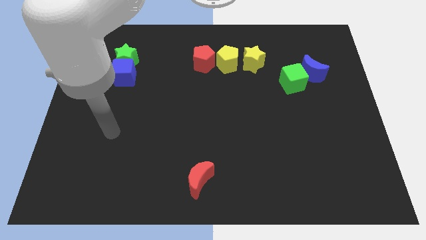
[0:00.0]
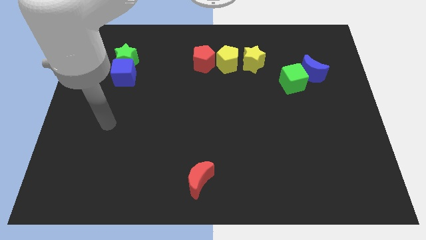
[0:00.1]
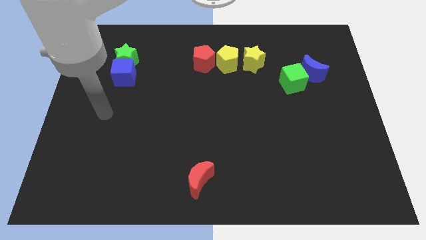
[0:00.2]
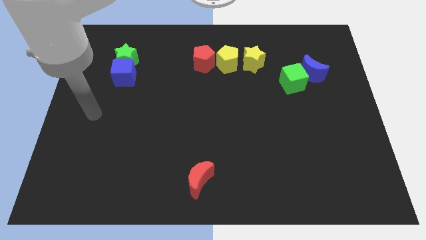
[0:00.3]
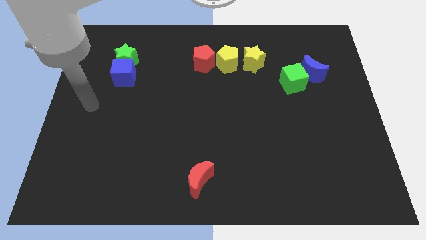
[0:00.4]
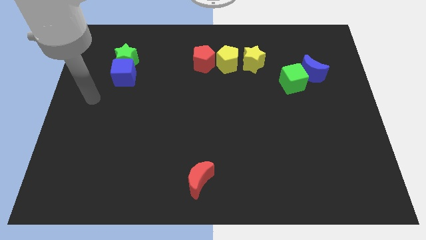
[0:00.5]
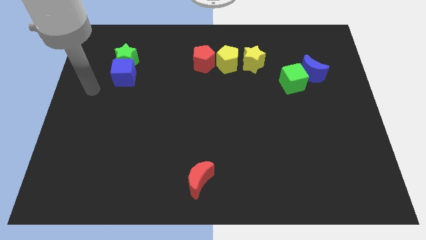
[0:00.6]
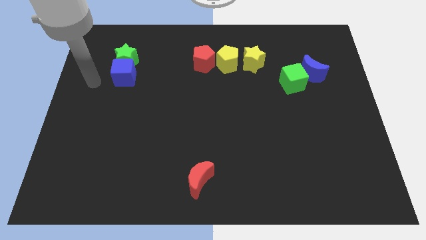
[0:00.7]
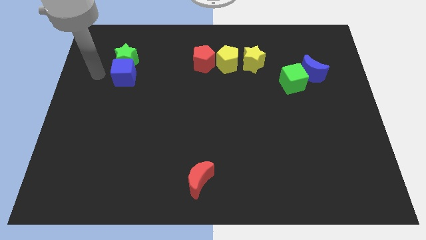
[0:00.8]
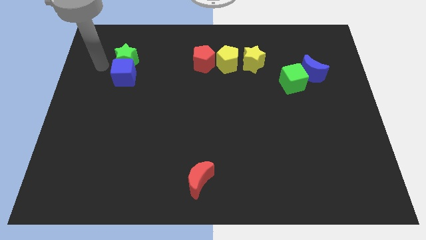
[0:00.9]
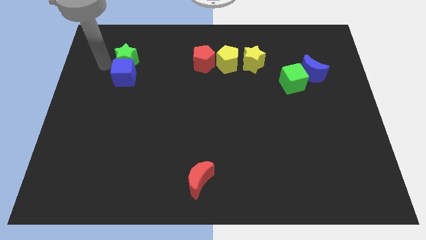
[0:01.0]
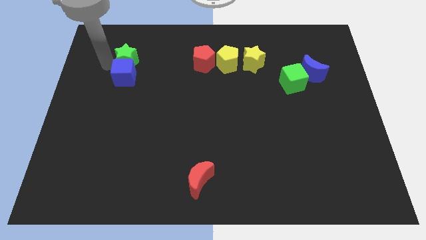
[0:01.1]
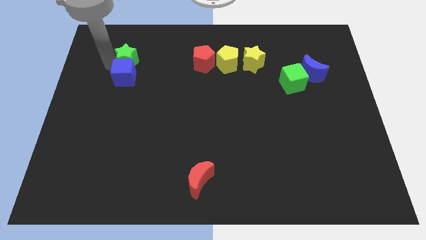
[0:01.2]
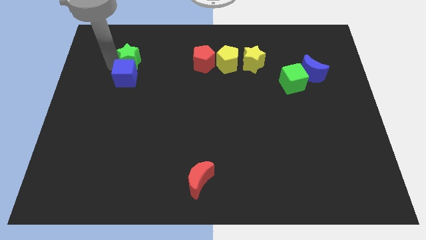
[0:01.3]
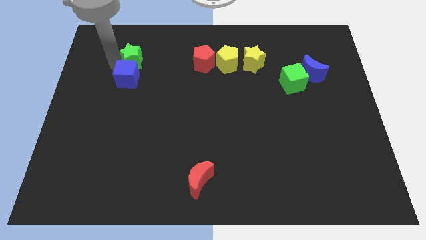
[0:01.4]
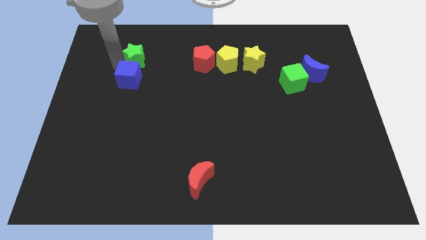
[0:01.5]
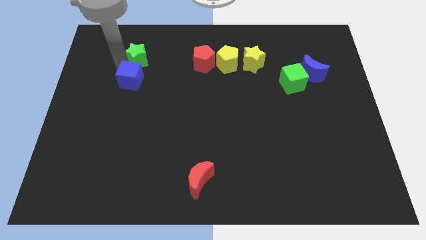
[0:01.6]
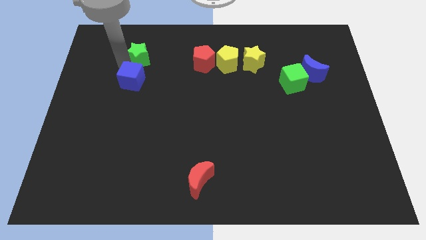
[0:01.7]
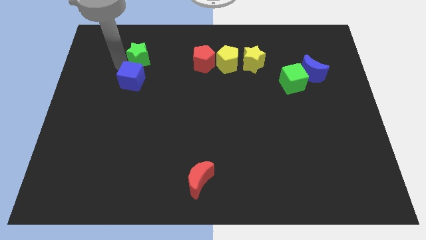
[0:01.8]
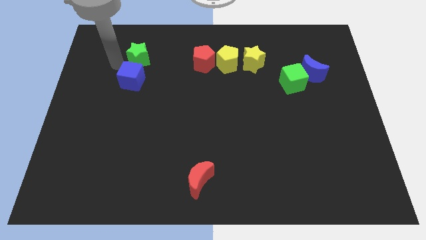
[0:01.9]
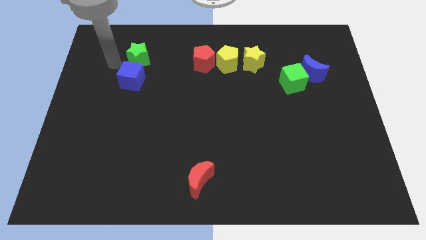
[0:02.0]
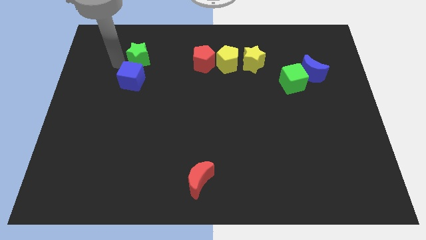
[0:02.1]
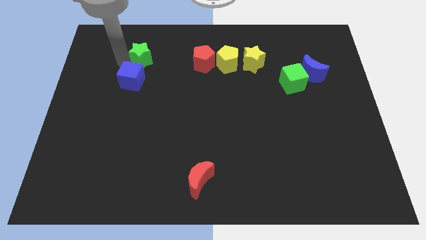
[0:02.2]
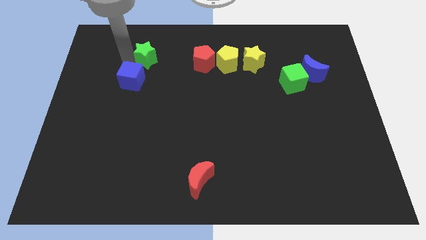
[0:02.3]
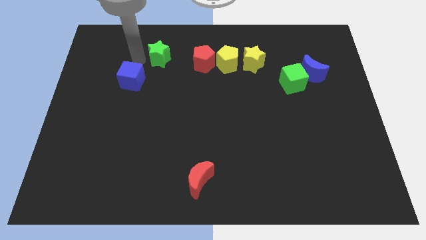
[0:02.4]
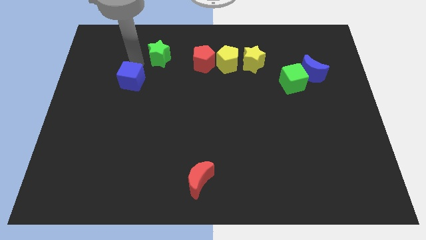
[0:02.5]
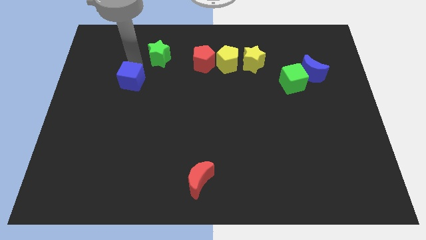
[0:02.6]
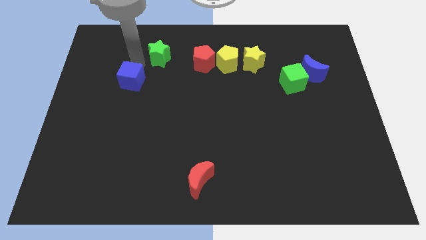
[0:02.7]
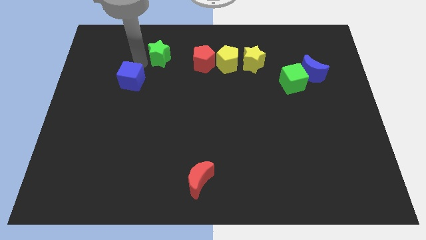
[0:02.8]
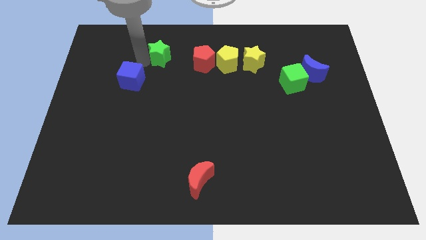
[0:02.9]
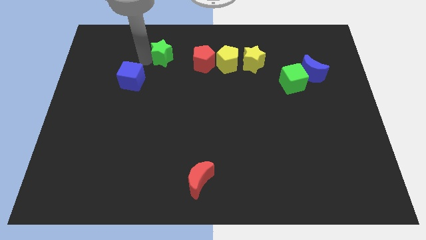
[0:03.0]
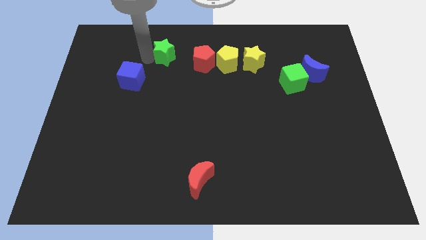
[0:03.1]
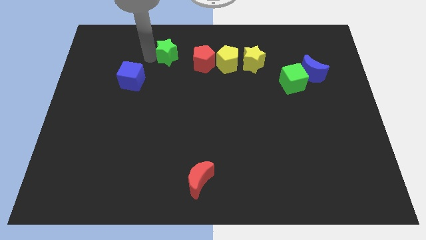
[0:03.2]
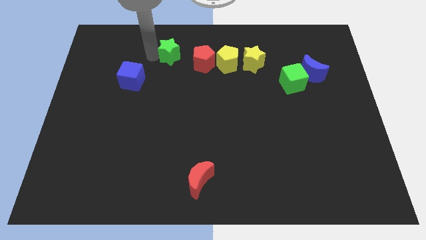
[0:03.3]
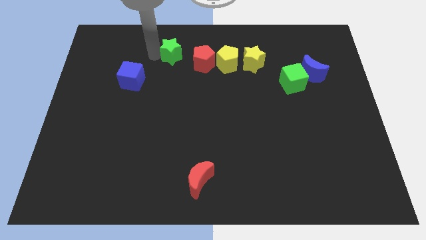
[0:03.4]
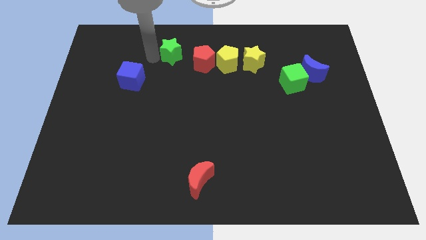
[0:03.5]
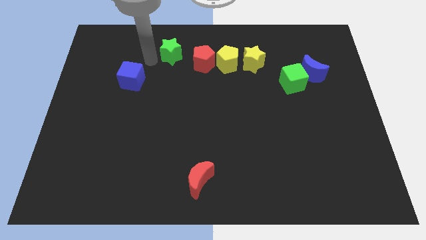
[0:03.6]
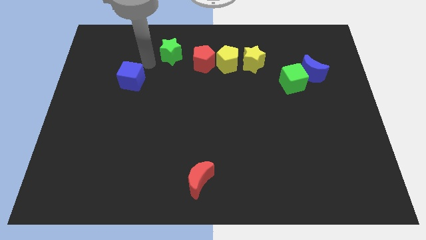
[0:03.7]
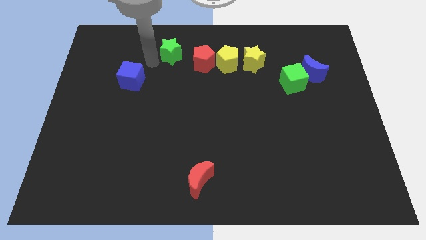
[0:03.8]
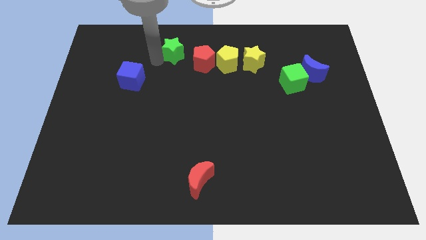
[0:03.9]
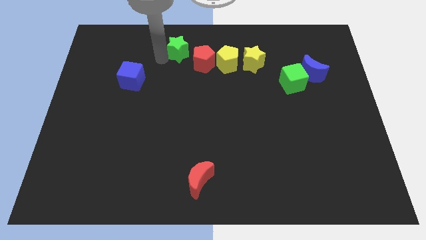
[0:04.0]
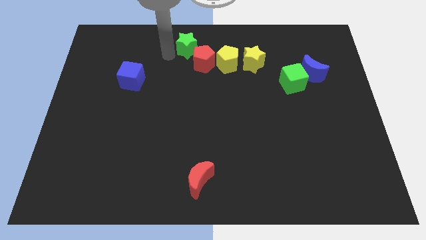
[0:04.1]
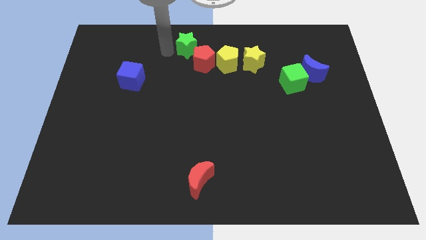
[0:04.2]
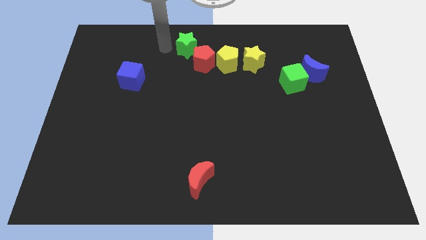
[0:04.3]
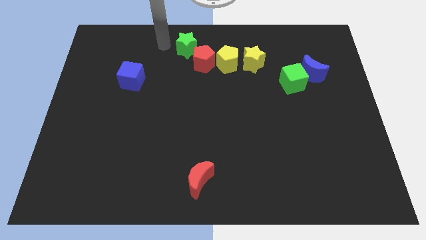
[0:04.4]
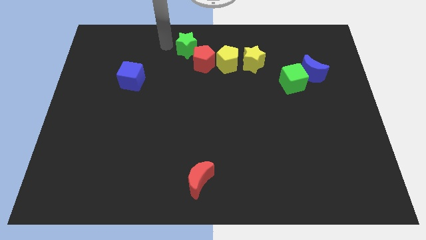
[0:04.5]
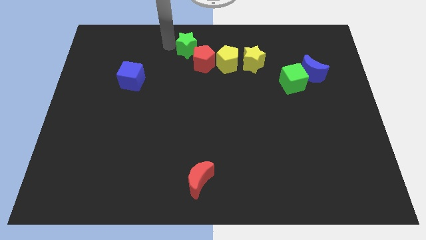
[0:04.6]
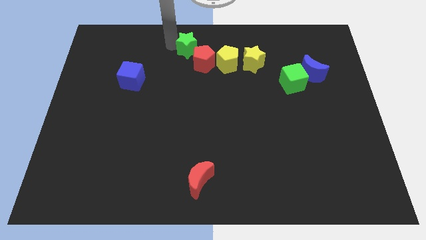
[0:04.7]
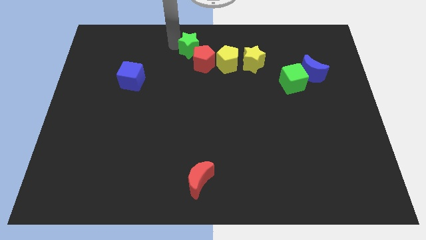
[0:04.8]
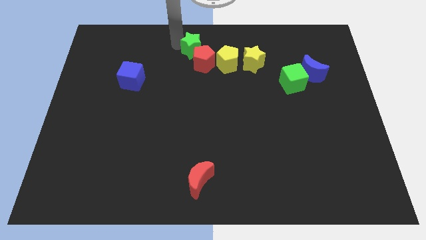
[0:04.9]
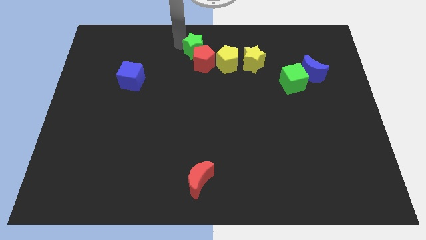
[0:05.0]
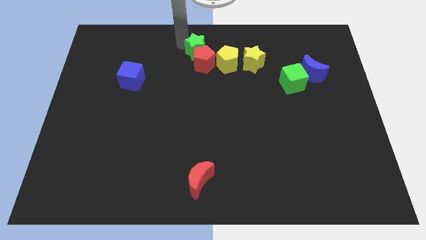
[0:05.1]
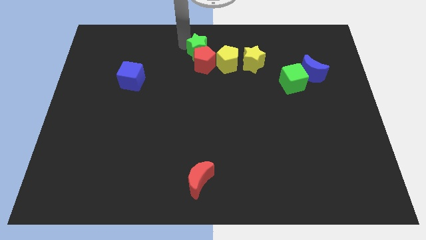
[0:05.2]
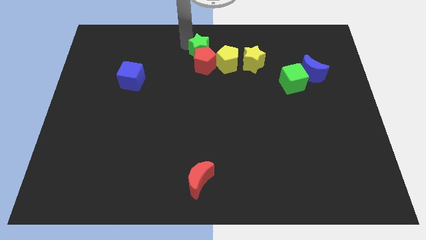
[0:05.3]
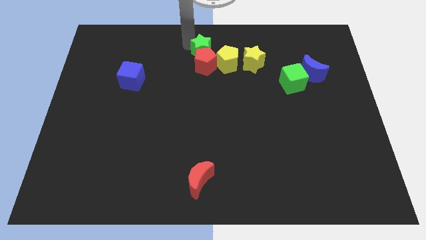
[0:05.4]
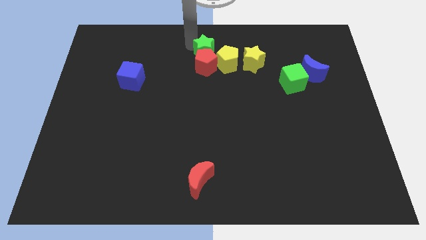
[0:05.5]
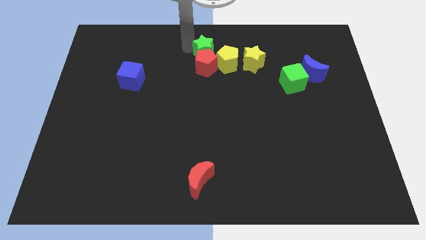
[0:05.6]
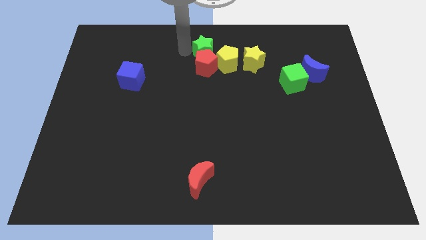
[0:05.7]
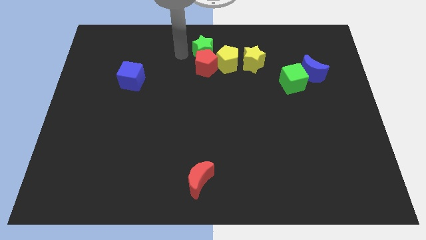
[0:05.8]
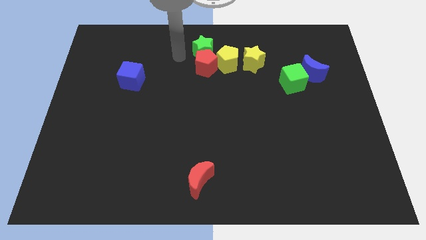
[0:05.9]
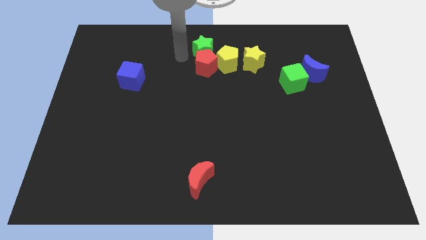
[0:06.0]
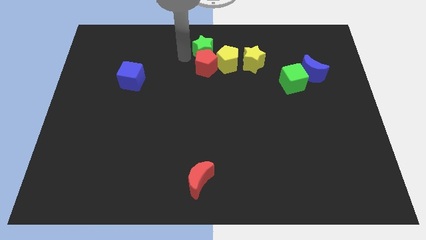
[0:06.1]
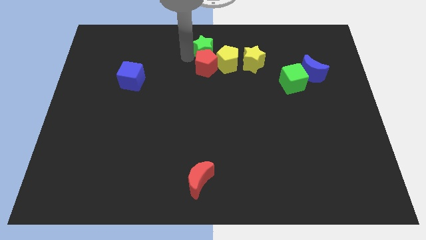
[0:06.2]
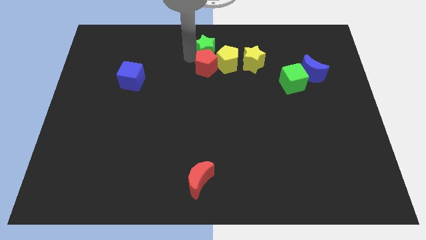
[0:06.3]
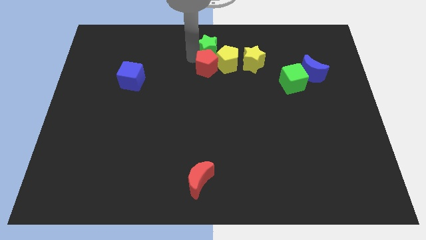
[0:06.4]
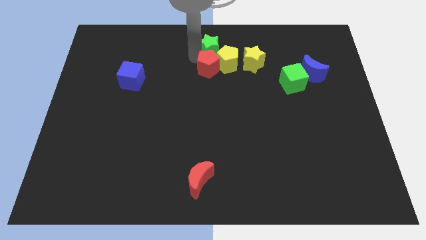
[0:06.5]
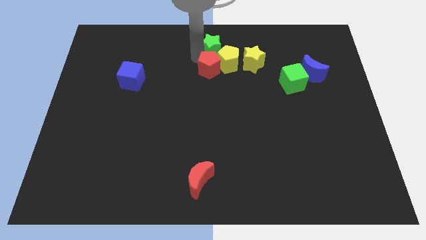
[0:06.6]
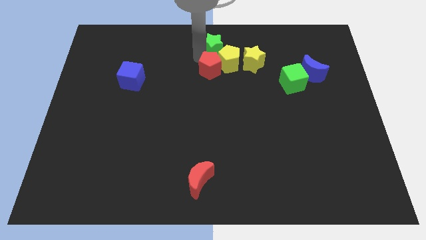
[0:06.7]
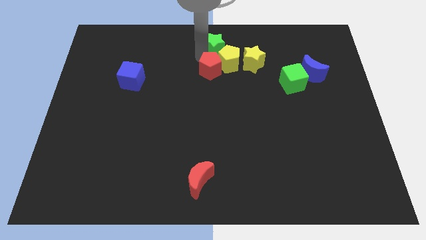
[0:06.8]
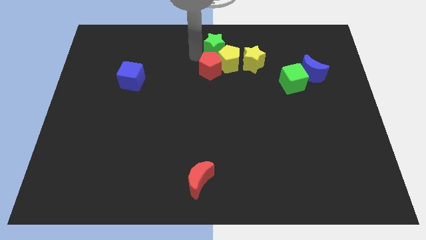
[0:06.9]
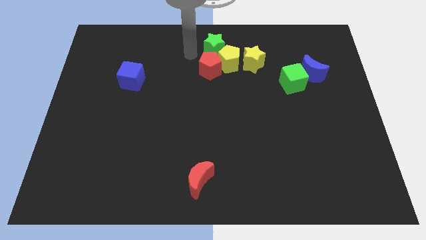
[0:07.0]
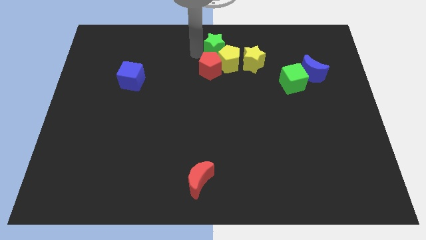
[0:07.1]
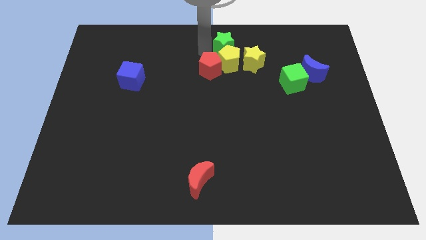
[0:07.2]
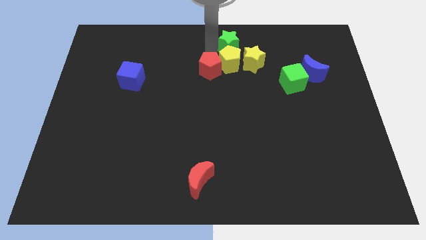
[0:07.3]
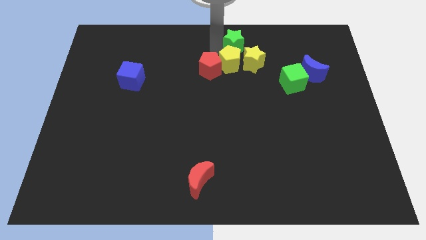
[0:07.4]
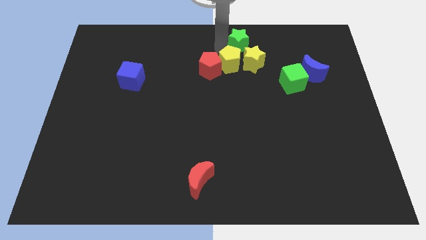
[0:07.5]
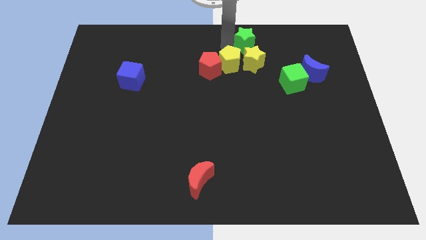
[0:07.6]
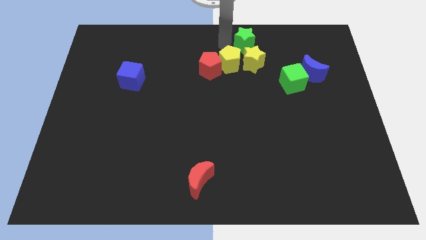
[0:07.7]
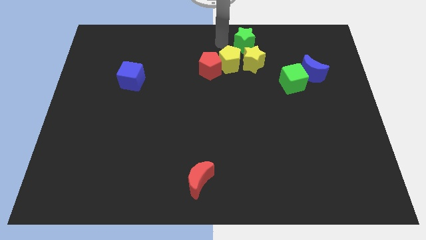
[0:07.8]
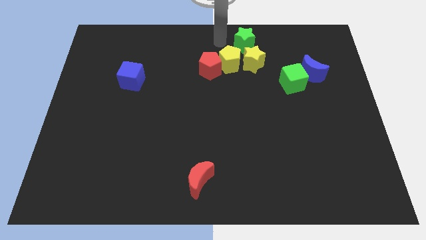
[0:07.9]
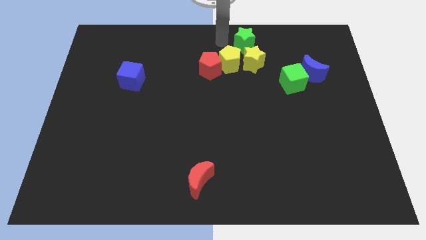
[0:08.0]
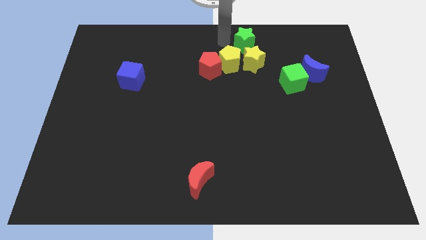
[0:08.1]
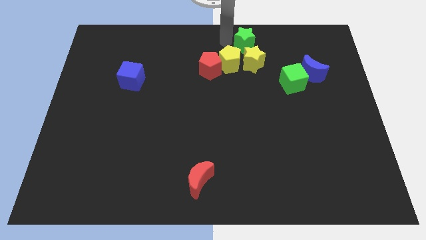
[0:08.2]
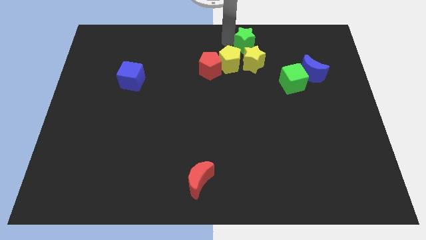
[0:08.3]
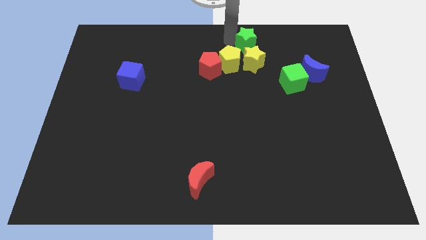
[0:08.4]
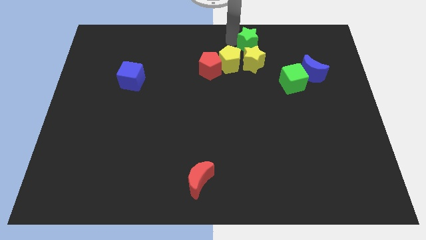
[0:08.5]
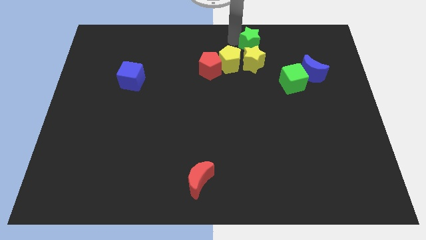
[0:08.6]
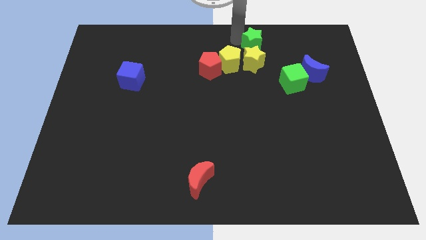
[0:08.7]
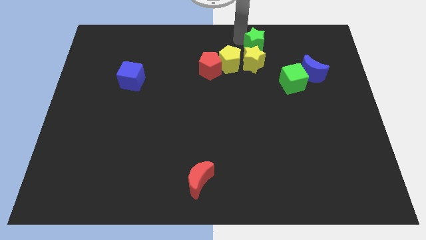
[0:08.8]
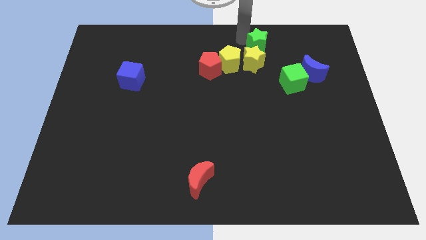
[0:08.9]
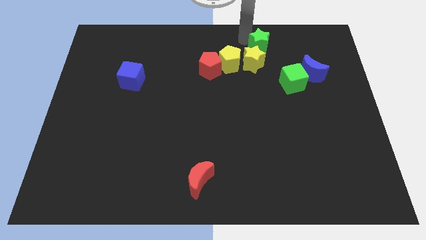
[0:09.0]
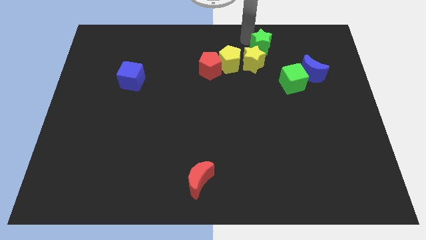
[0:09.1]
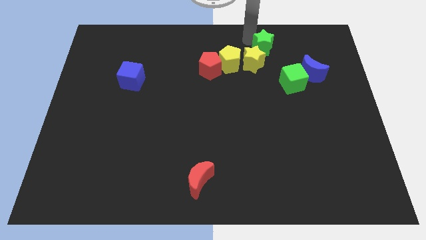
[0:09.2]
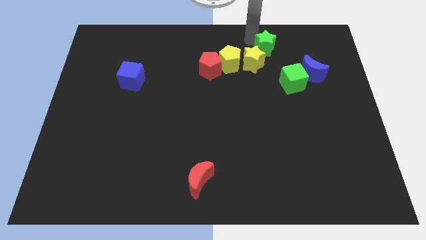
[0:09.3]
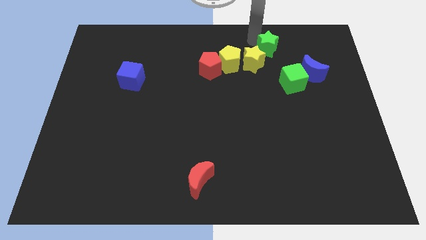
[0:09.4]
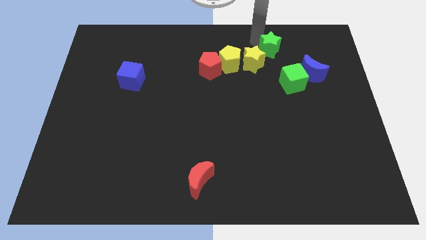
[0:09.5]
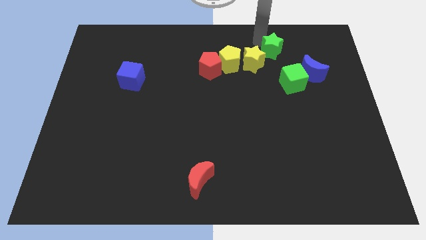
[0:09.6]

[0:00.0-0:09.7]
put the green star to the top left of the blue moon
